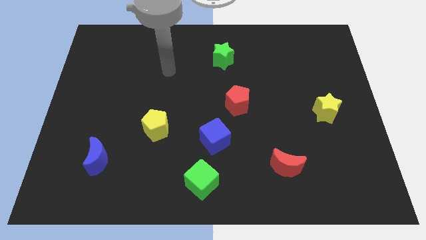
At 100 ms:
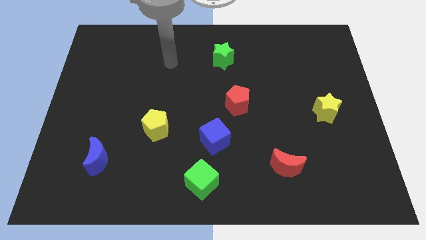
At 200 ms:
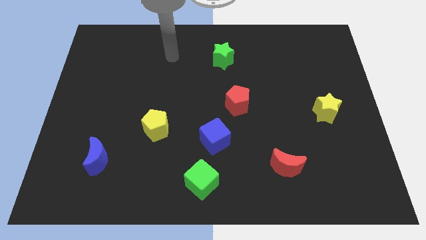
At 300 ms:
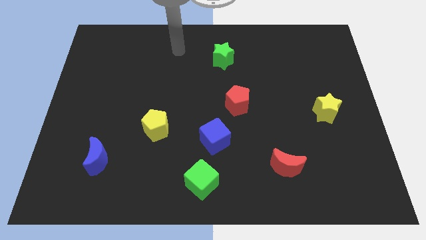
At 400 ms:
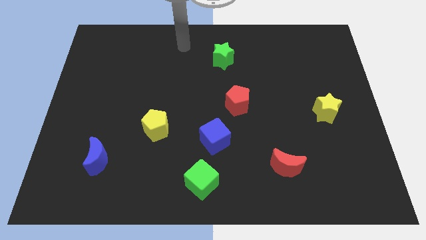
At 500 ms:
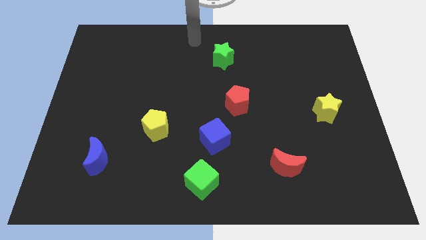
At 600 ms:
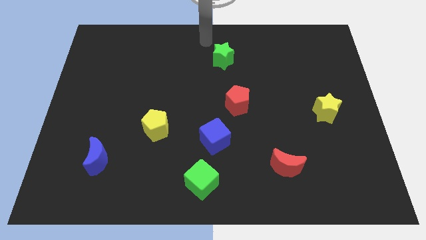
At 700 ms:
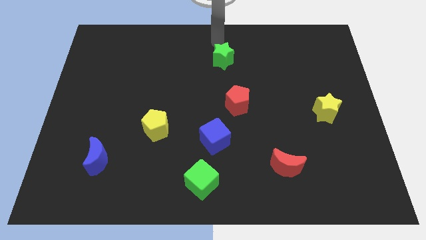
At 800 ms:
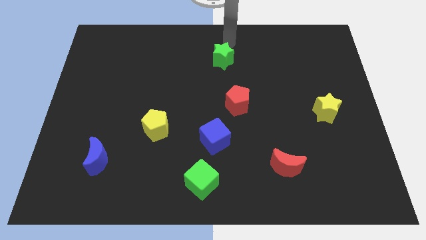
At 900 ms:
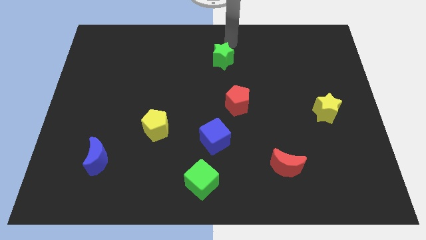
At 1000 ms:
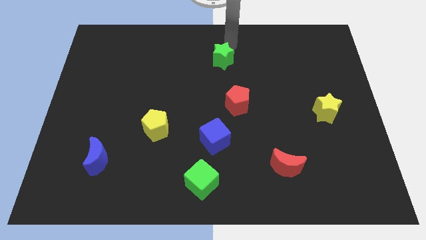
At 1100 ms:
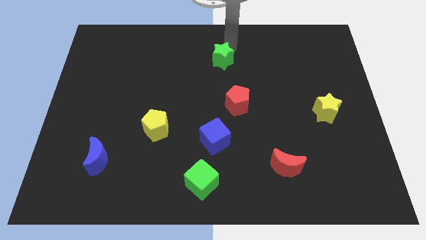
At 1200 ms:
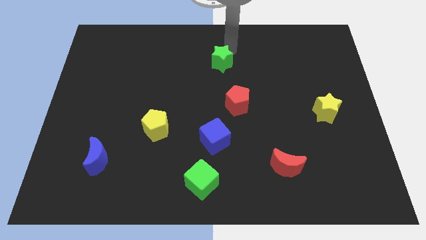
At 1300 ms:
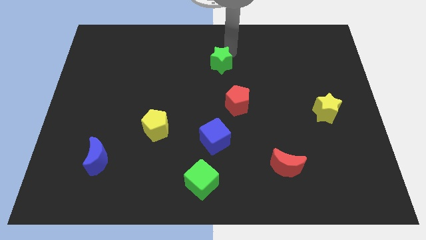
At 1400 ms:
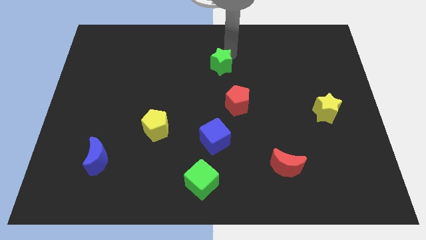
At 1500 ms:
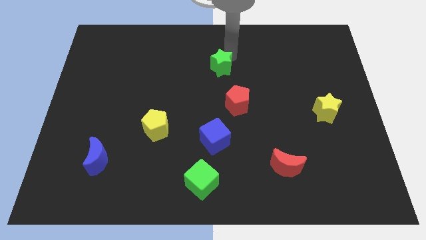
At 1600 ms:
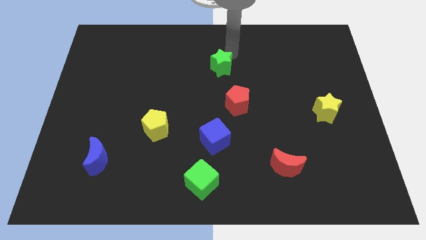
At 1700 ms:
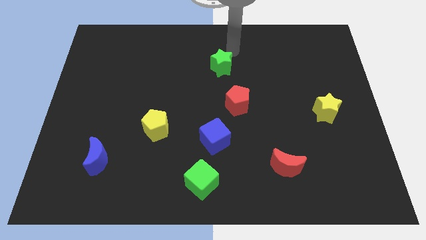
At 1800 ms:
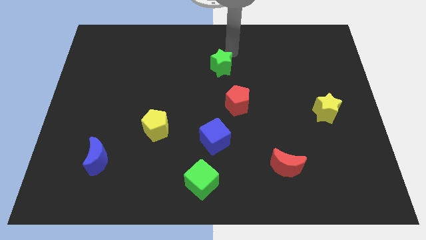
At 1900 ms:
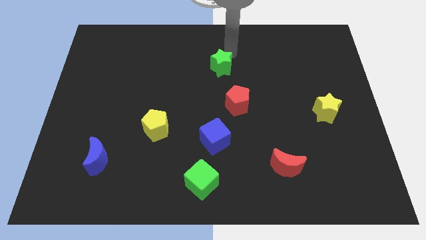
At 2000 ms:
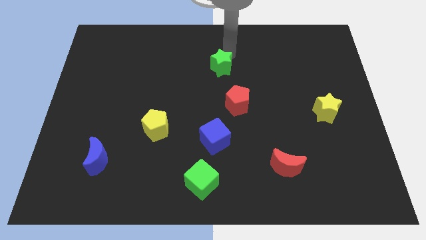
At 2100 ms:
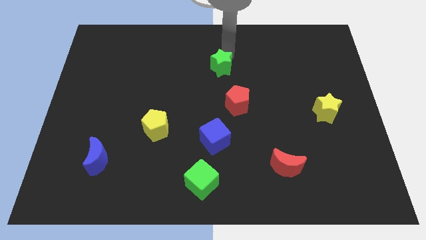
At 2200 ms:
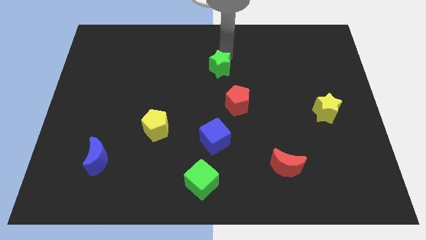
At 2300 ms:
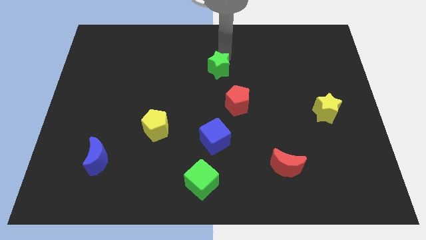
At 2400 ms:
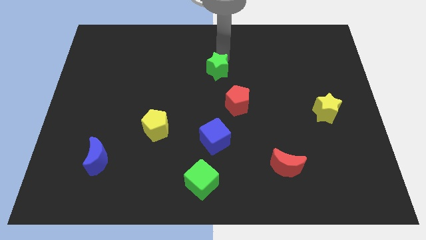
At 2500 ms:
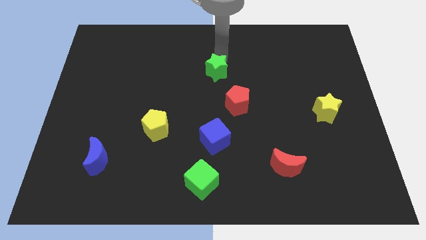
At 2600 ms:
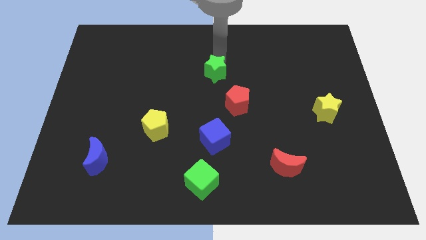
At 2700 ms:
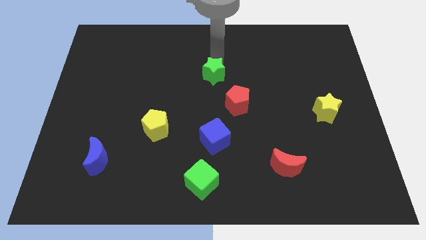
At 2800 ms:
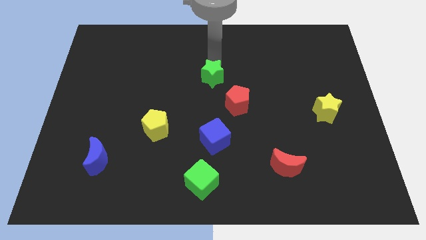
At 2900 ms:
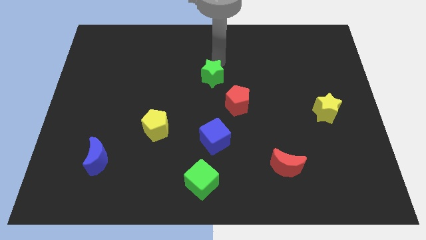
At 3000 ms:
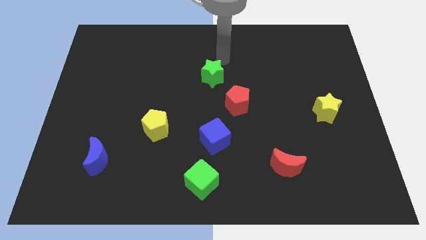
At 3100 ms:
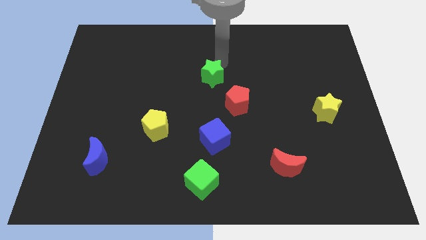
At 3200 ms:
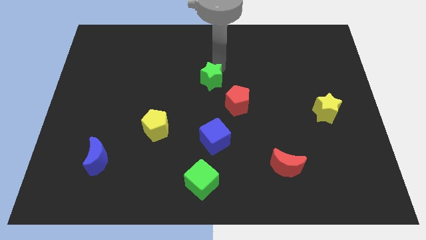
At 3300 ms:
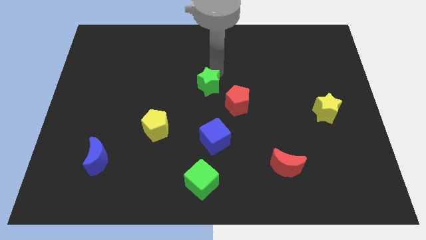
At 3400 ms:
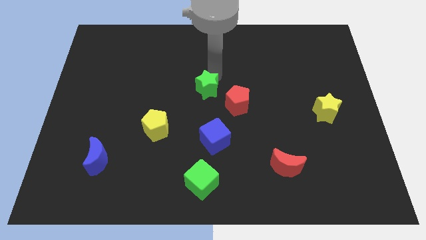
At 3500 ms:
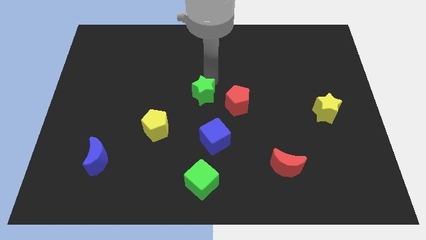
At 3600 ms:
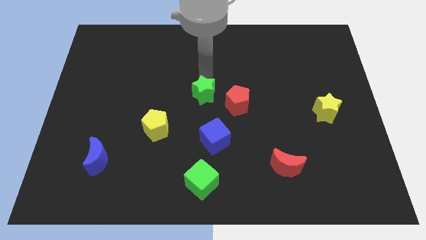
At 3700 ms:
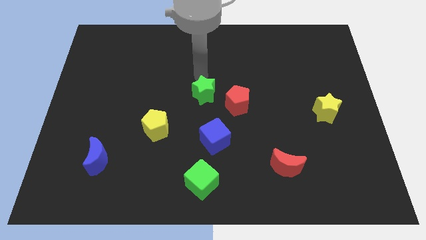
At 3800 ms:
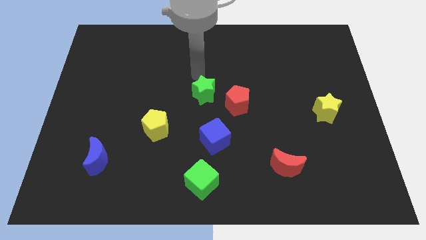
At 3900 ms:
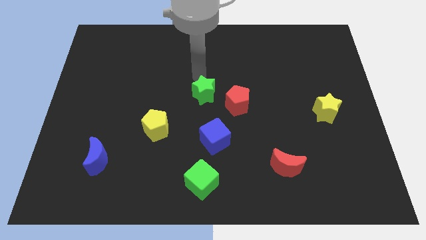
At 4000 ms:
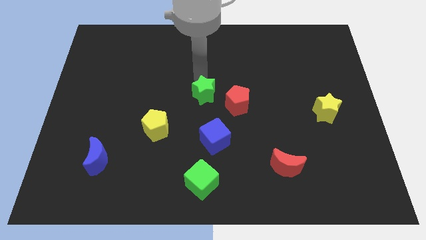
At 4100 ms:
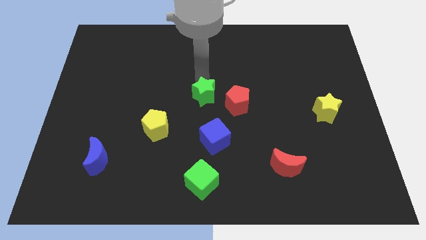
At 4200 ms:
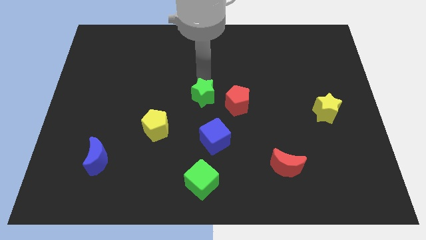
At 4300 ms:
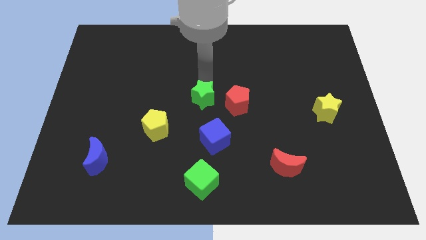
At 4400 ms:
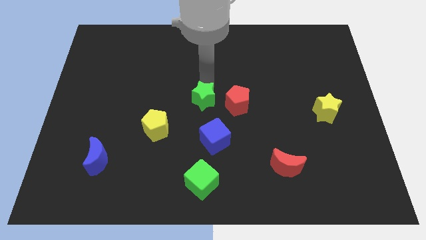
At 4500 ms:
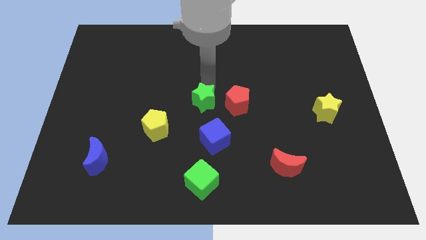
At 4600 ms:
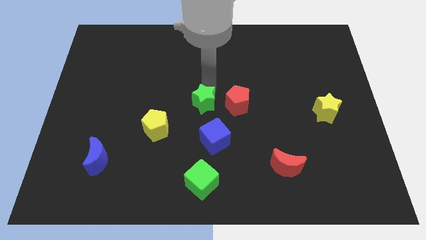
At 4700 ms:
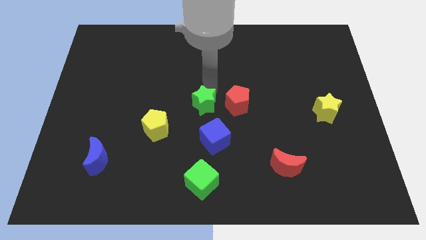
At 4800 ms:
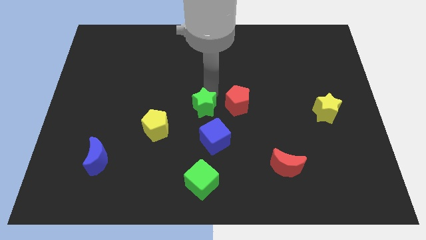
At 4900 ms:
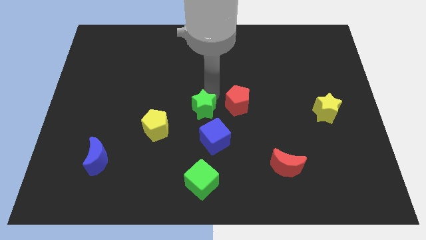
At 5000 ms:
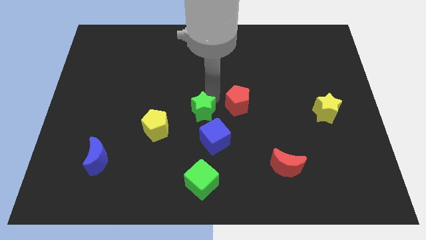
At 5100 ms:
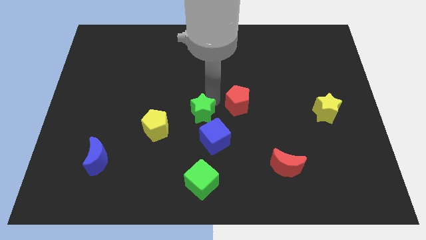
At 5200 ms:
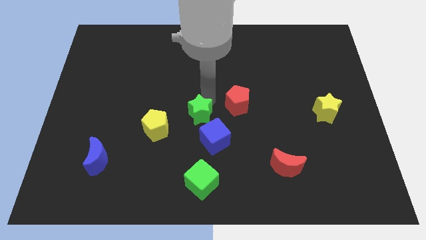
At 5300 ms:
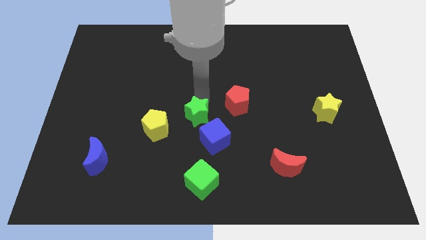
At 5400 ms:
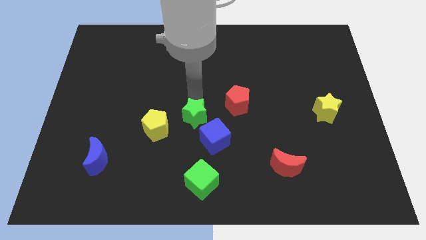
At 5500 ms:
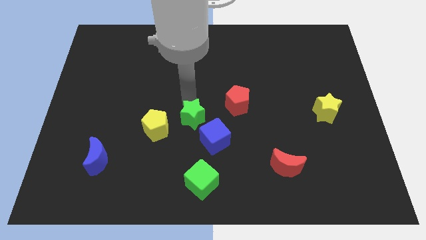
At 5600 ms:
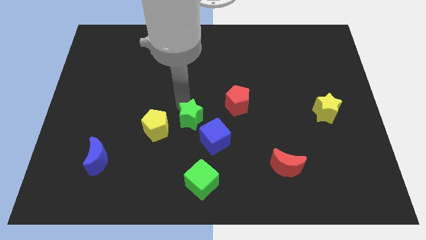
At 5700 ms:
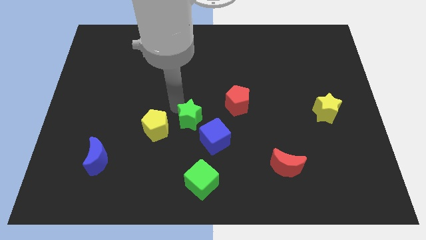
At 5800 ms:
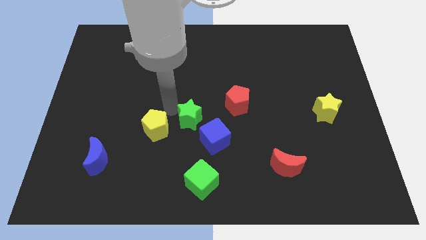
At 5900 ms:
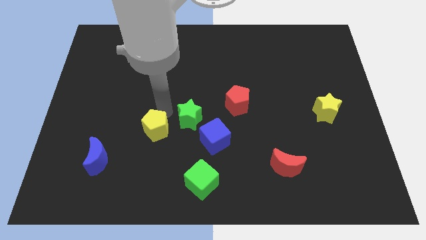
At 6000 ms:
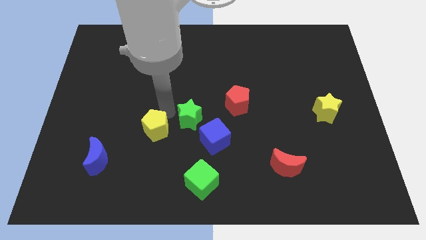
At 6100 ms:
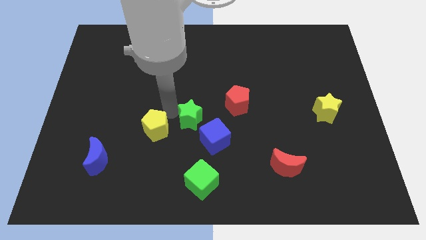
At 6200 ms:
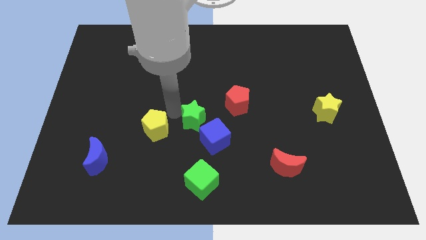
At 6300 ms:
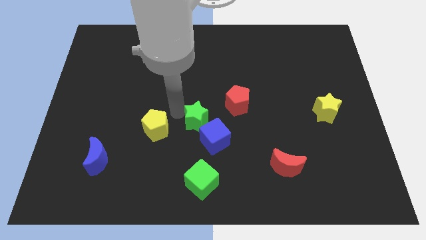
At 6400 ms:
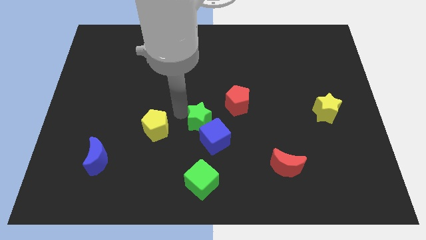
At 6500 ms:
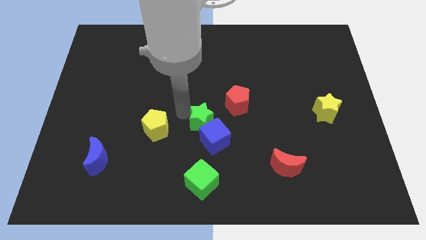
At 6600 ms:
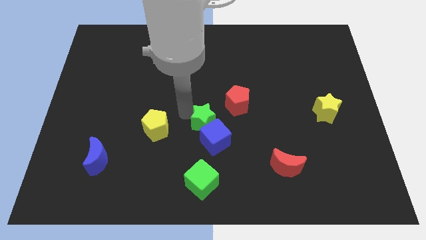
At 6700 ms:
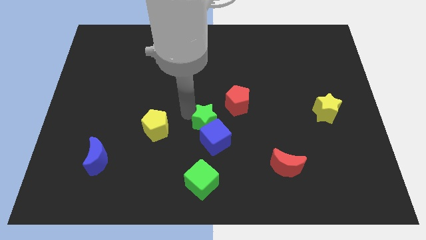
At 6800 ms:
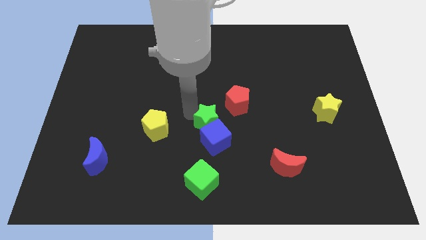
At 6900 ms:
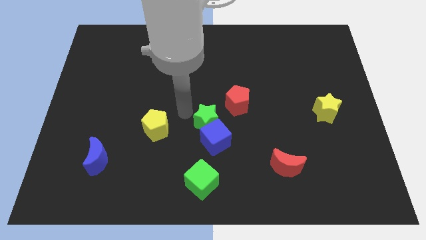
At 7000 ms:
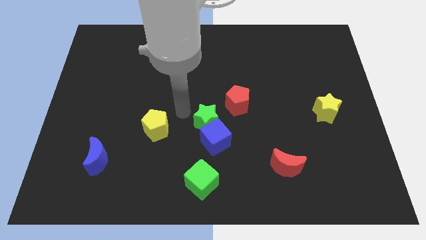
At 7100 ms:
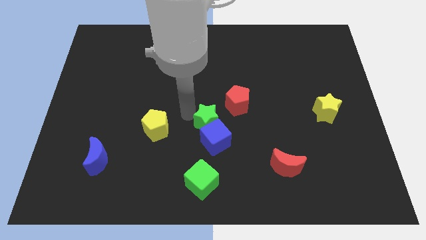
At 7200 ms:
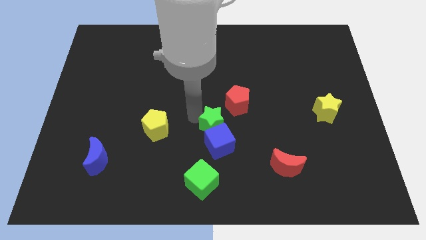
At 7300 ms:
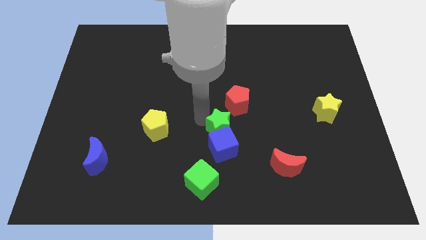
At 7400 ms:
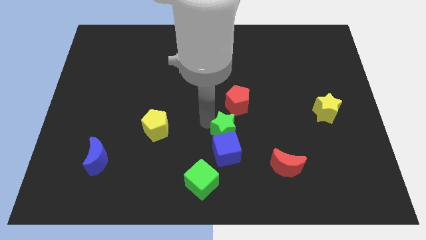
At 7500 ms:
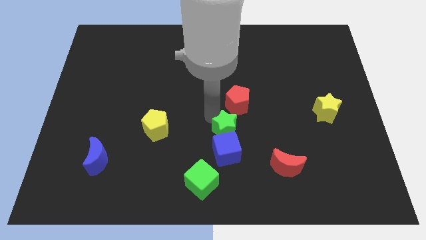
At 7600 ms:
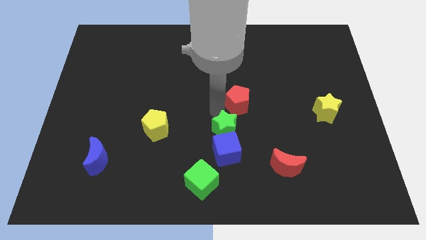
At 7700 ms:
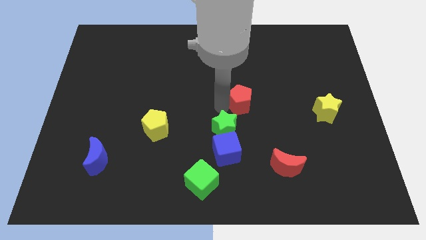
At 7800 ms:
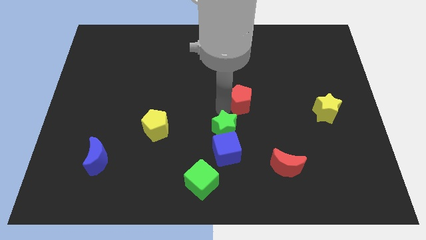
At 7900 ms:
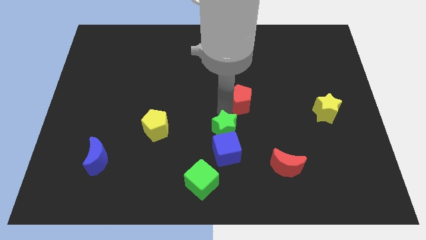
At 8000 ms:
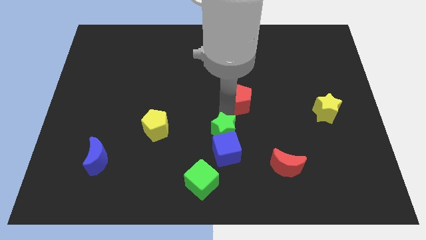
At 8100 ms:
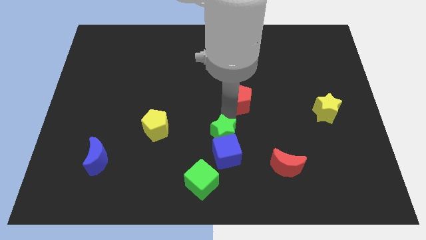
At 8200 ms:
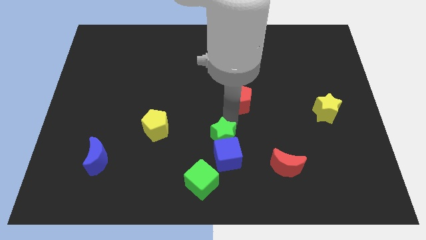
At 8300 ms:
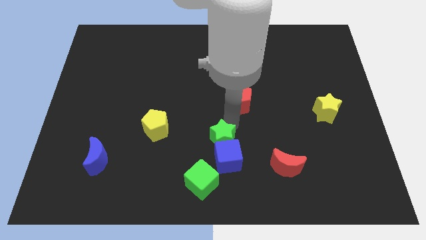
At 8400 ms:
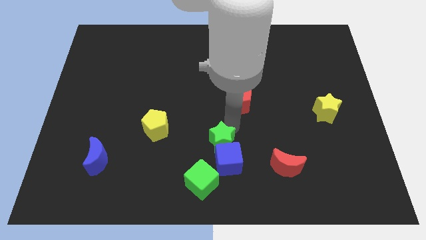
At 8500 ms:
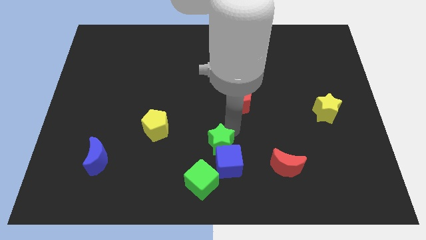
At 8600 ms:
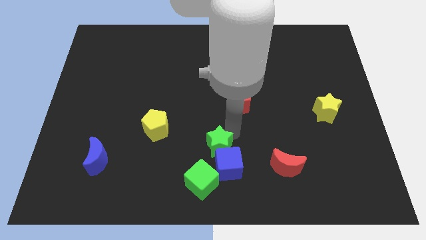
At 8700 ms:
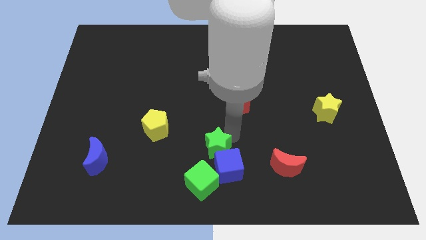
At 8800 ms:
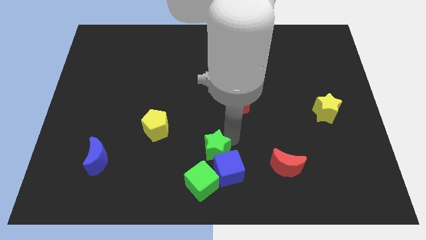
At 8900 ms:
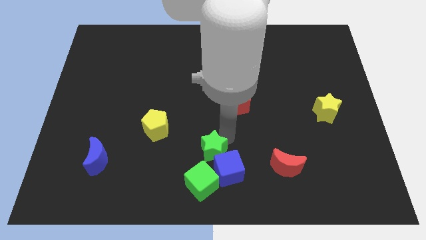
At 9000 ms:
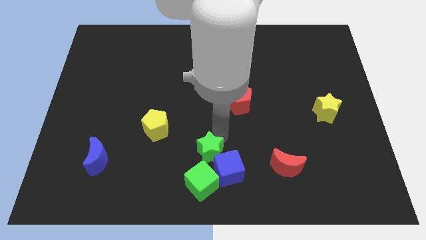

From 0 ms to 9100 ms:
push the green star to the bottom
